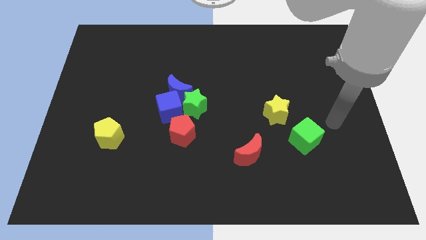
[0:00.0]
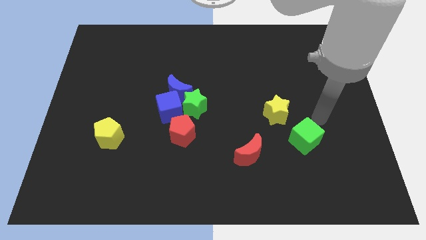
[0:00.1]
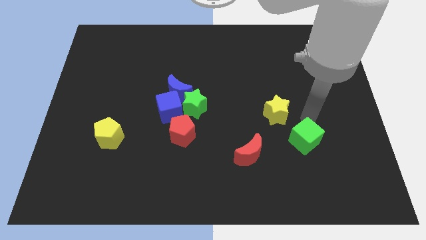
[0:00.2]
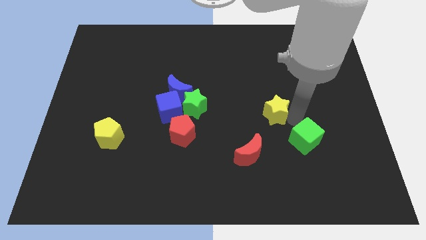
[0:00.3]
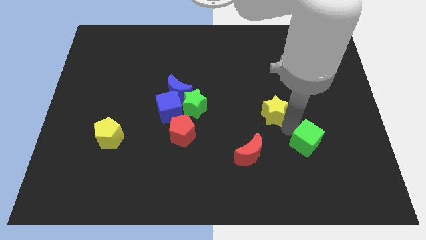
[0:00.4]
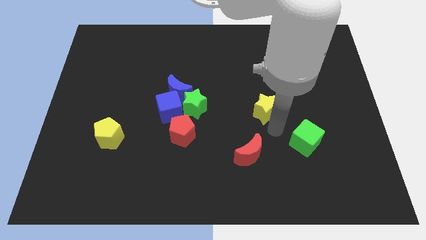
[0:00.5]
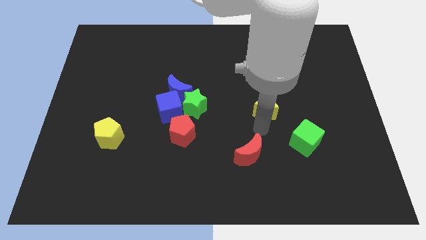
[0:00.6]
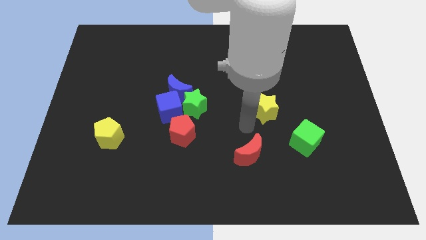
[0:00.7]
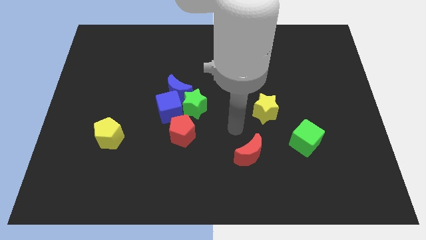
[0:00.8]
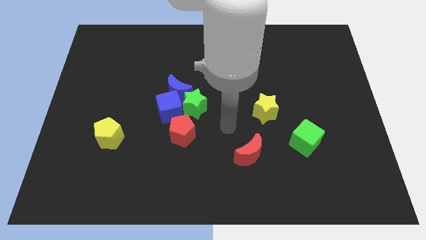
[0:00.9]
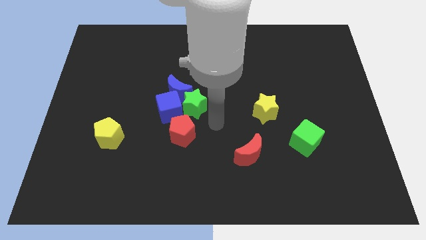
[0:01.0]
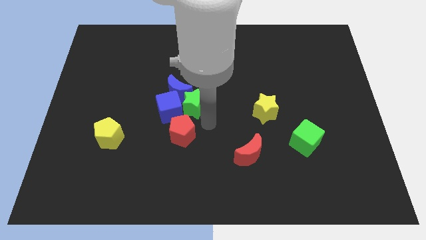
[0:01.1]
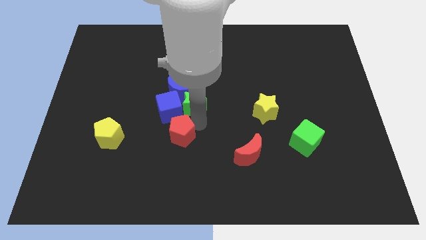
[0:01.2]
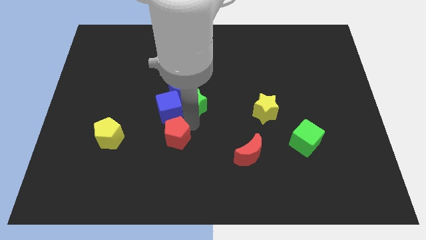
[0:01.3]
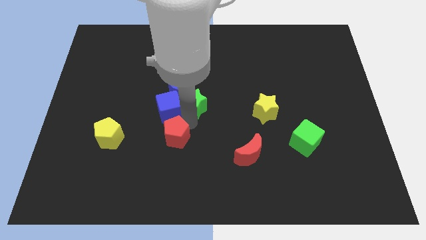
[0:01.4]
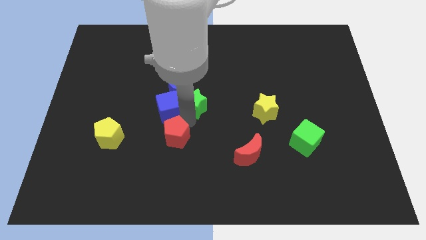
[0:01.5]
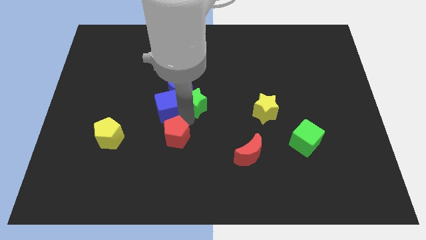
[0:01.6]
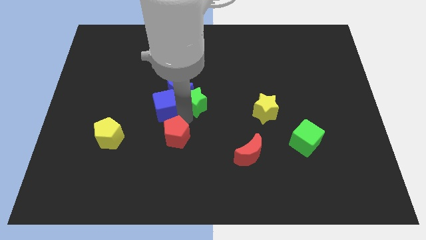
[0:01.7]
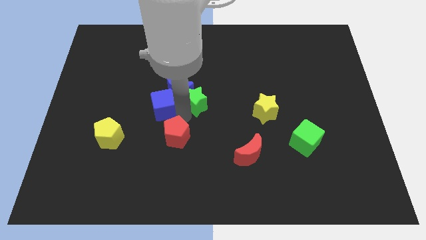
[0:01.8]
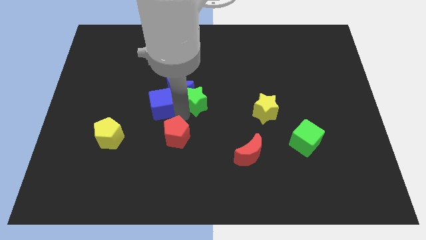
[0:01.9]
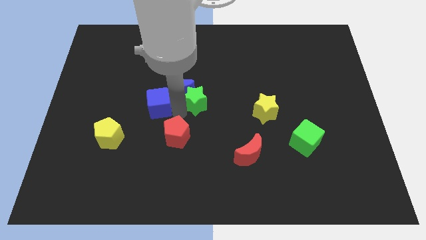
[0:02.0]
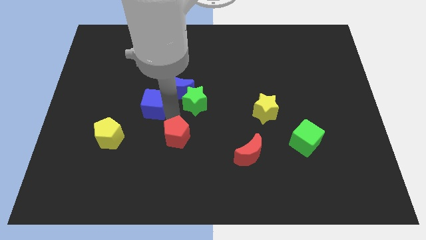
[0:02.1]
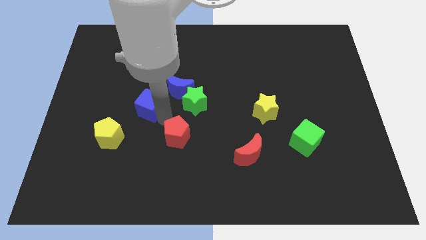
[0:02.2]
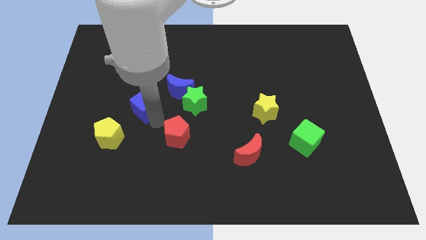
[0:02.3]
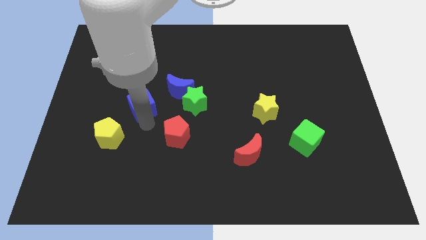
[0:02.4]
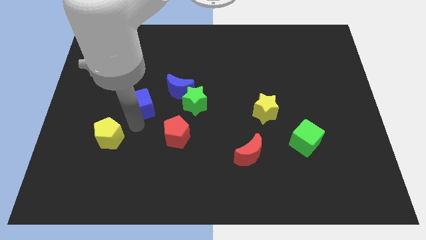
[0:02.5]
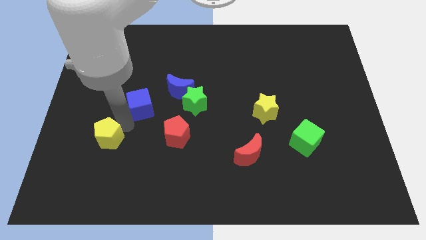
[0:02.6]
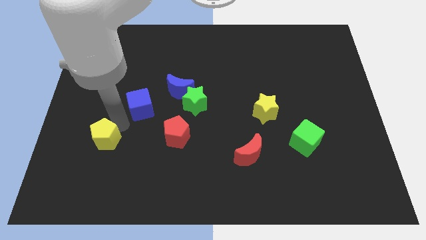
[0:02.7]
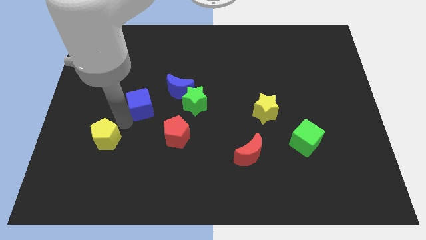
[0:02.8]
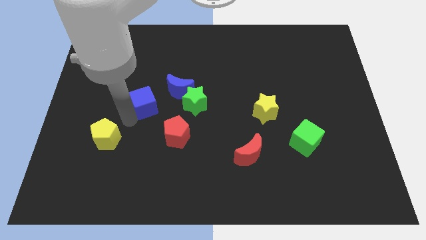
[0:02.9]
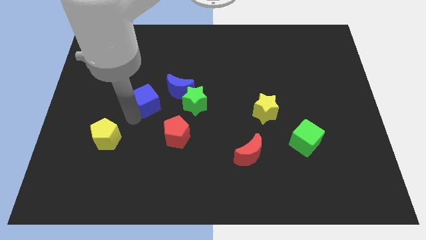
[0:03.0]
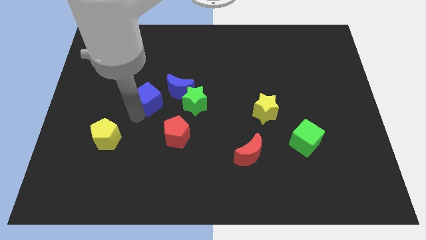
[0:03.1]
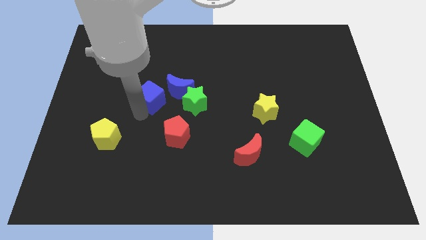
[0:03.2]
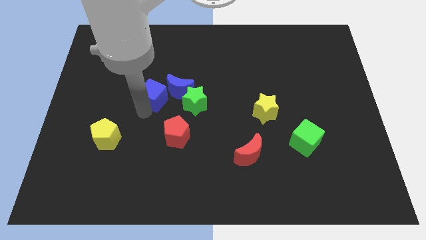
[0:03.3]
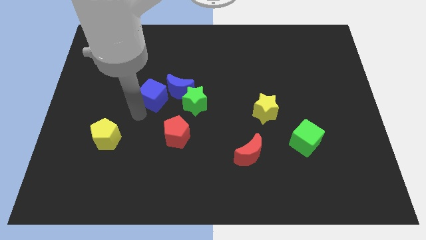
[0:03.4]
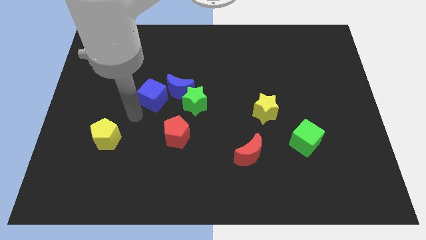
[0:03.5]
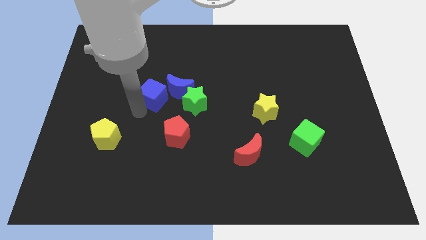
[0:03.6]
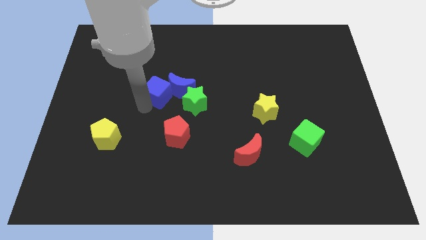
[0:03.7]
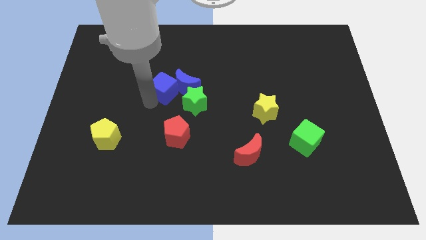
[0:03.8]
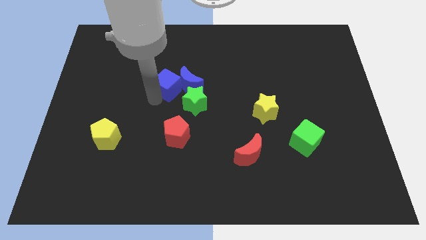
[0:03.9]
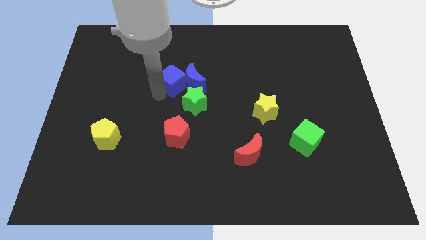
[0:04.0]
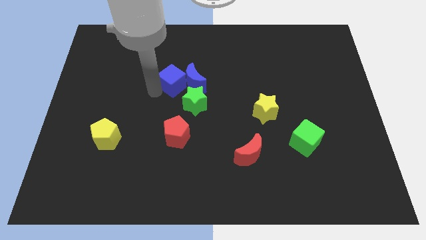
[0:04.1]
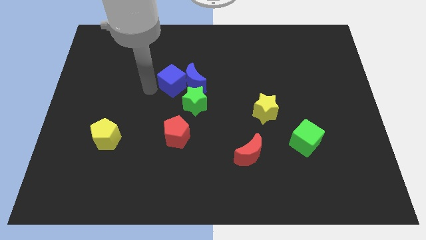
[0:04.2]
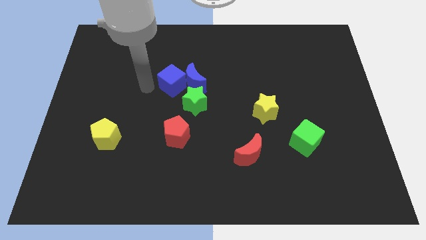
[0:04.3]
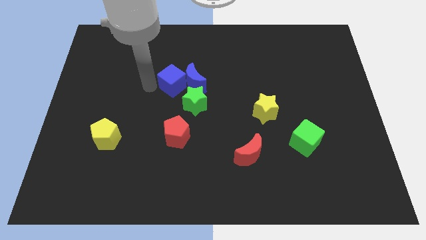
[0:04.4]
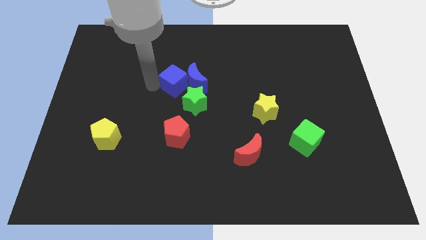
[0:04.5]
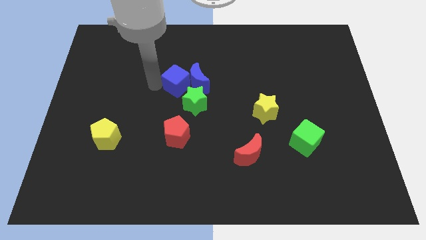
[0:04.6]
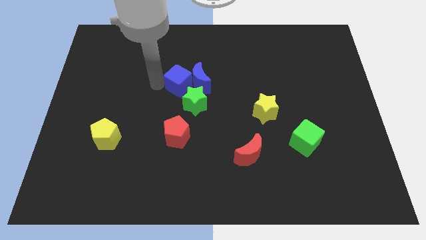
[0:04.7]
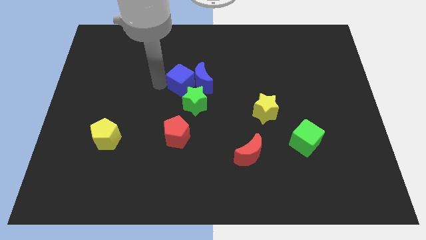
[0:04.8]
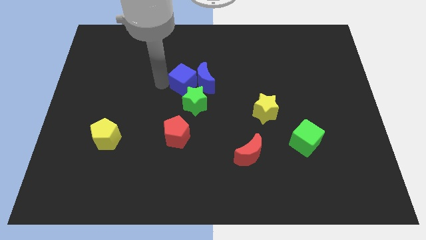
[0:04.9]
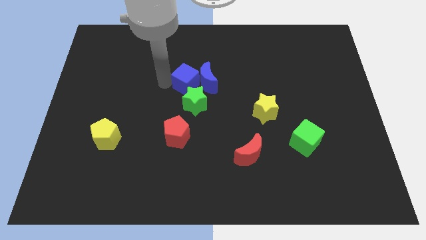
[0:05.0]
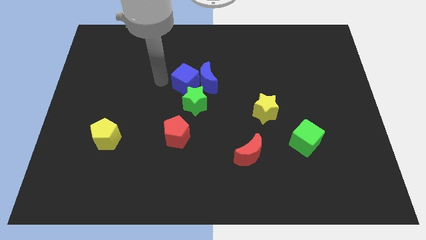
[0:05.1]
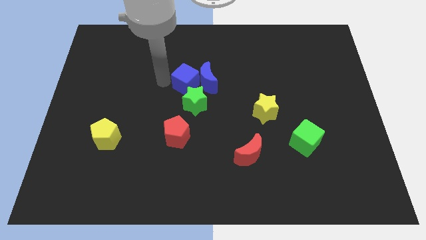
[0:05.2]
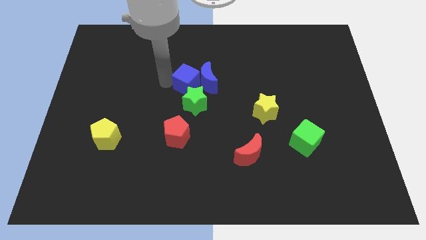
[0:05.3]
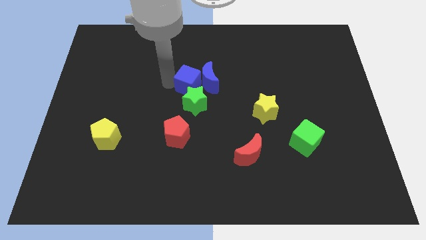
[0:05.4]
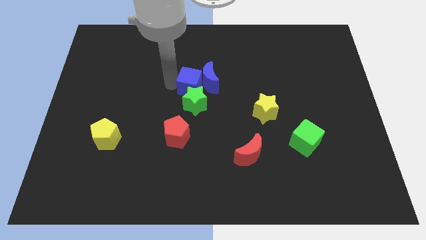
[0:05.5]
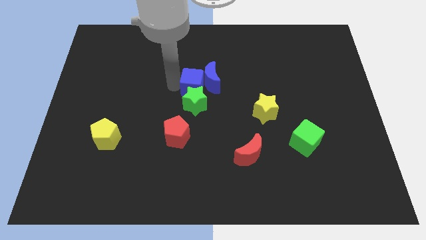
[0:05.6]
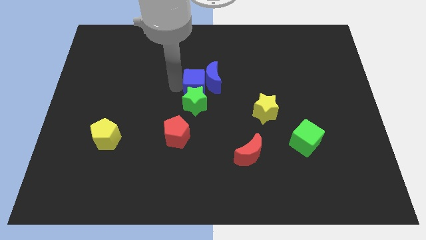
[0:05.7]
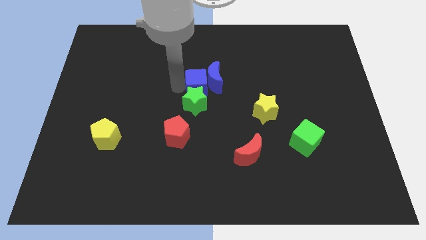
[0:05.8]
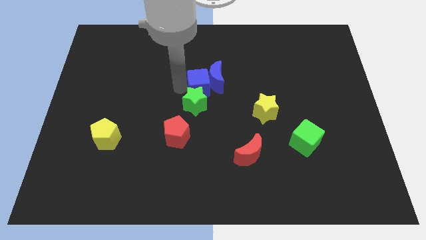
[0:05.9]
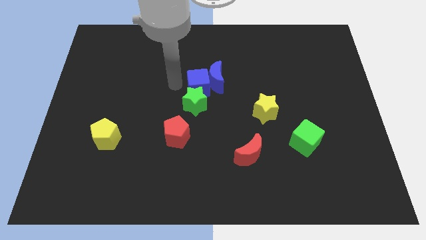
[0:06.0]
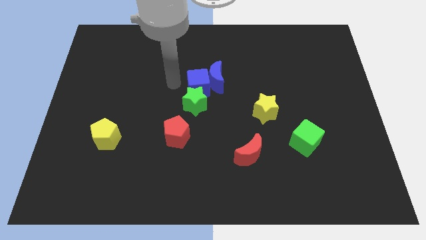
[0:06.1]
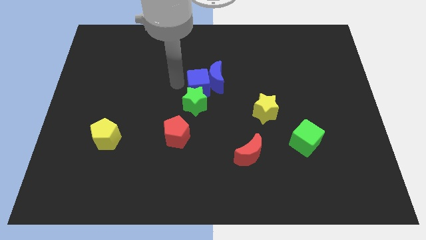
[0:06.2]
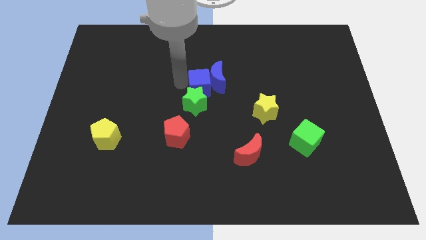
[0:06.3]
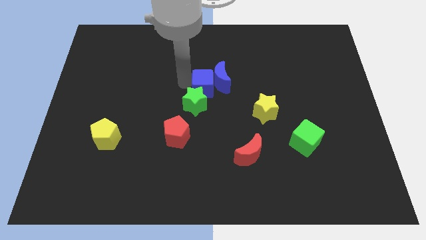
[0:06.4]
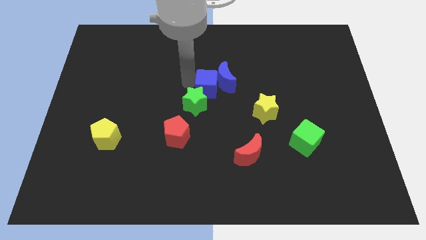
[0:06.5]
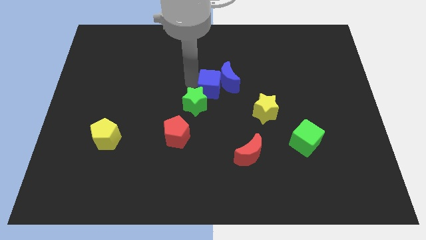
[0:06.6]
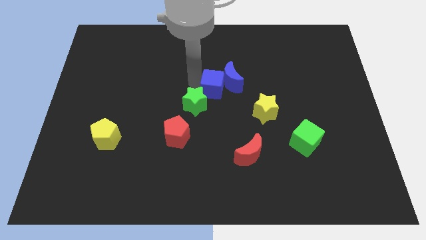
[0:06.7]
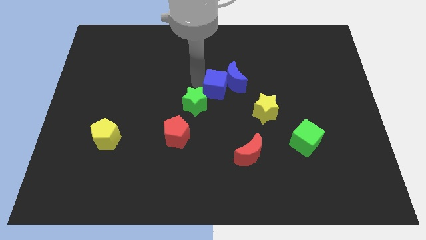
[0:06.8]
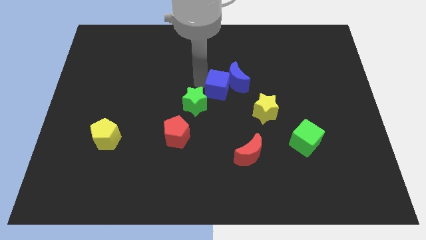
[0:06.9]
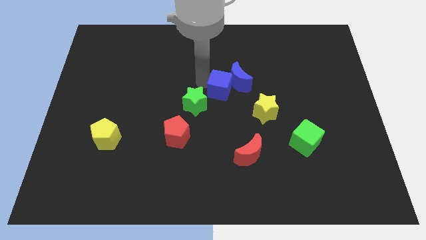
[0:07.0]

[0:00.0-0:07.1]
slide the blue cube to the top left of the yellow star

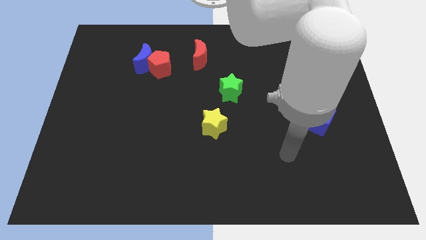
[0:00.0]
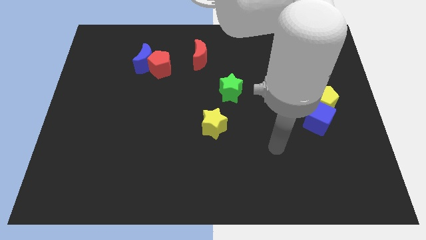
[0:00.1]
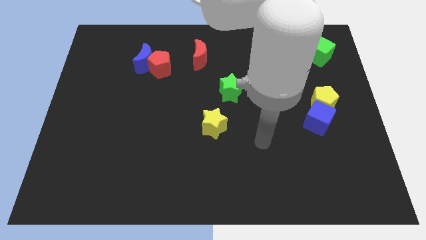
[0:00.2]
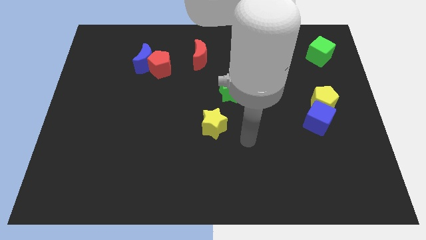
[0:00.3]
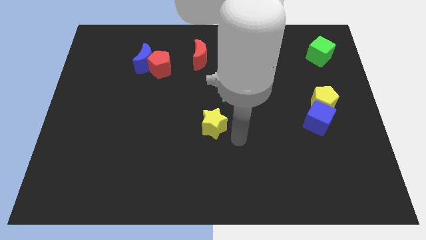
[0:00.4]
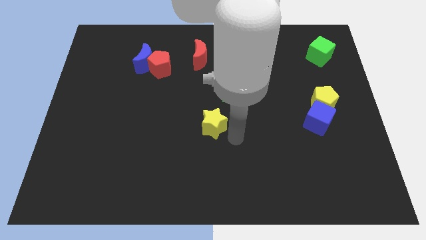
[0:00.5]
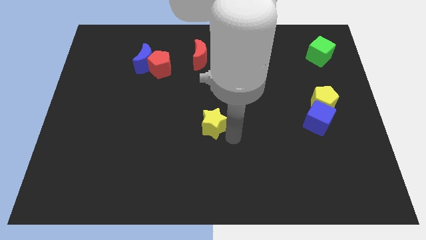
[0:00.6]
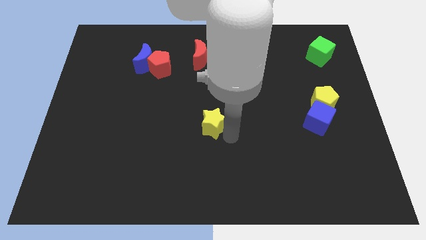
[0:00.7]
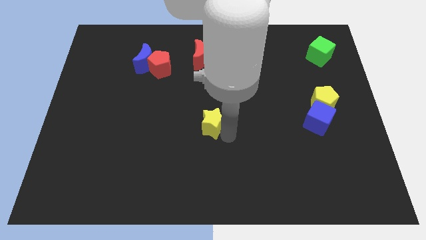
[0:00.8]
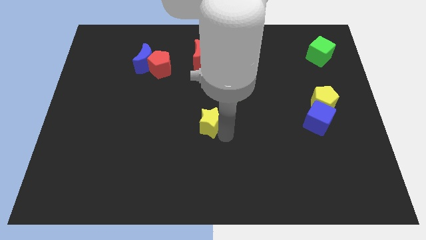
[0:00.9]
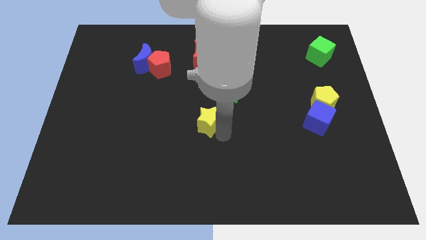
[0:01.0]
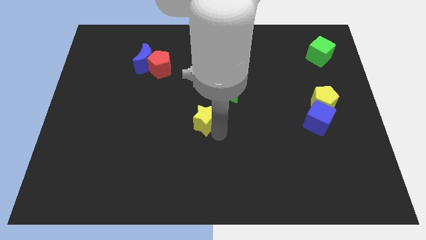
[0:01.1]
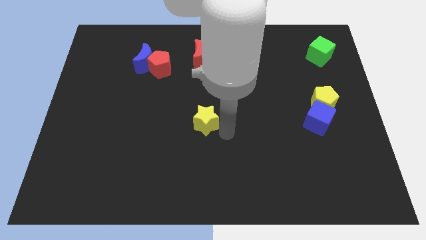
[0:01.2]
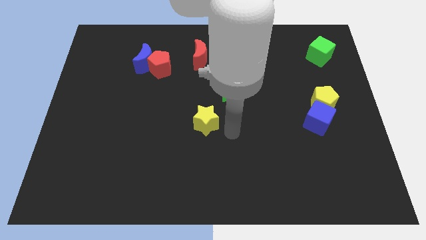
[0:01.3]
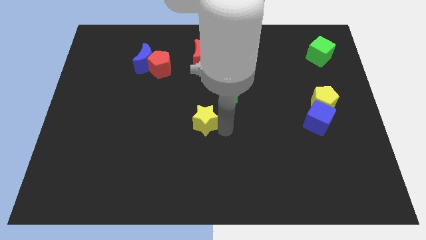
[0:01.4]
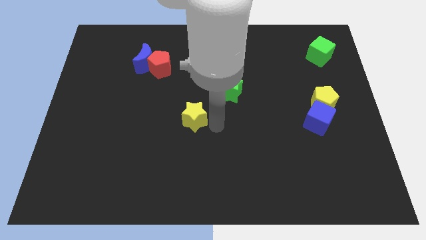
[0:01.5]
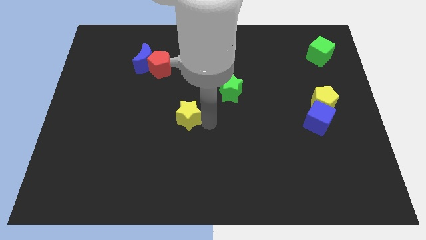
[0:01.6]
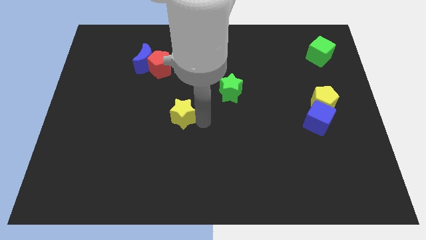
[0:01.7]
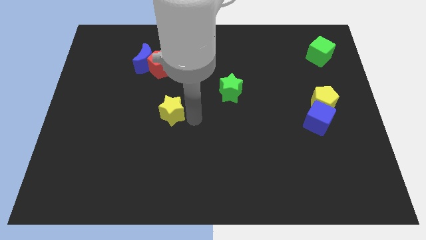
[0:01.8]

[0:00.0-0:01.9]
push the yellow star to the bottom of the red pentagon
